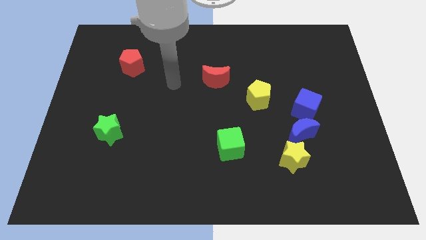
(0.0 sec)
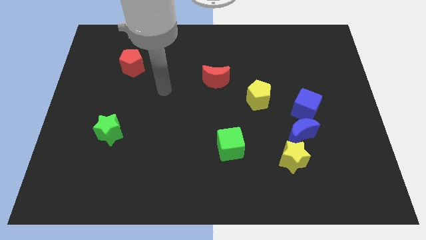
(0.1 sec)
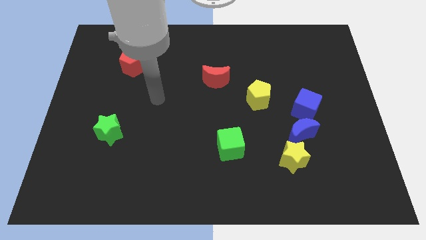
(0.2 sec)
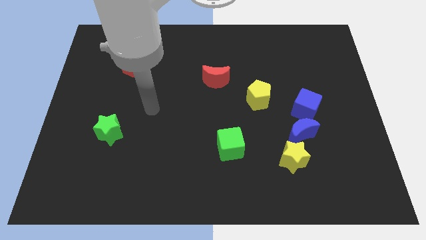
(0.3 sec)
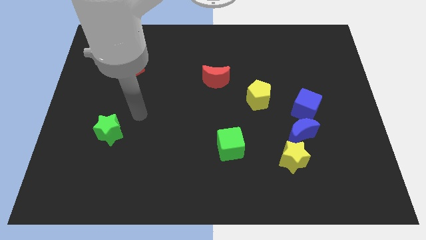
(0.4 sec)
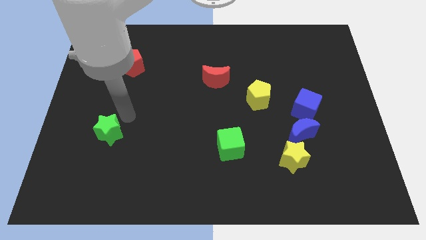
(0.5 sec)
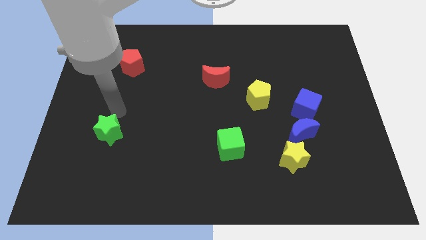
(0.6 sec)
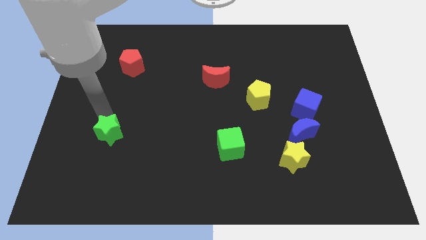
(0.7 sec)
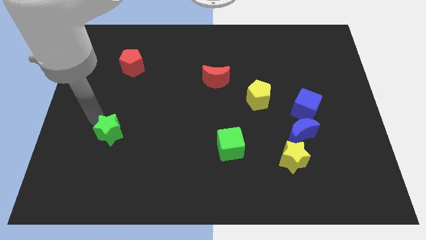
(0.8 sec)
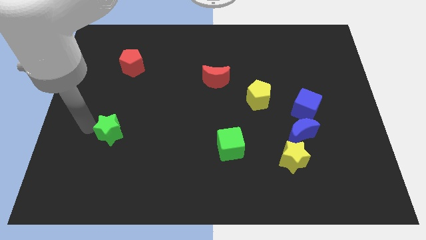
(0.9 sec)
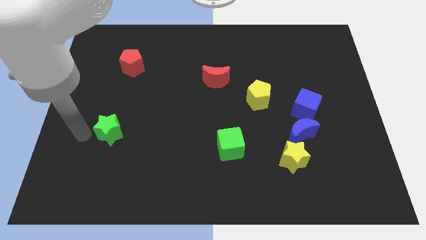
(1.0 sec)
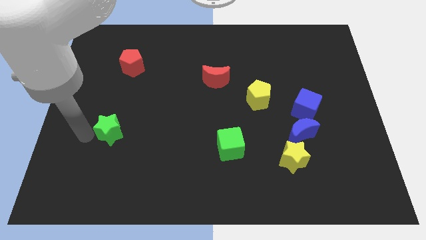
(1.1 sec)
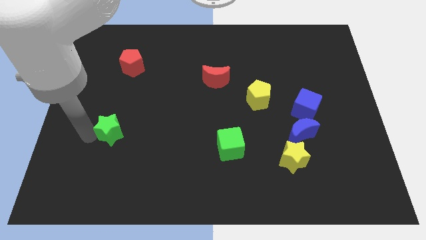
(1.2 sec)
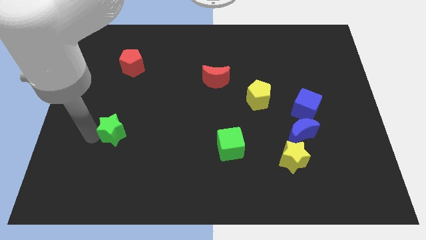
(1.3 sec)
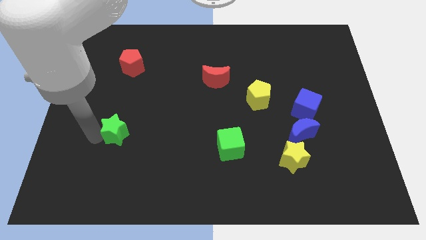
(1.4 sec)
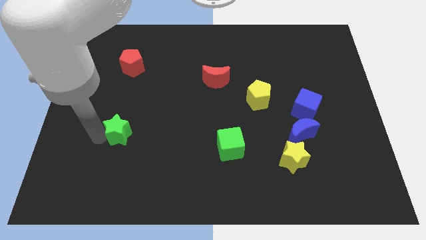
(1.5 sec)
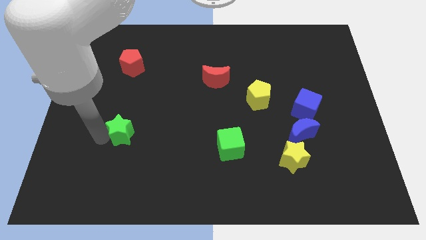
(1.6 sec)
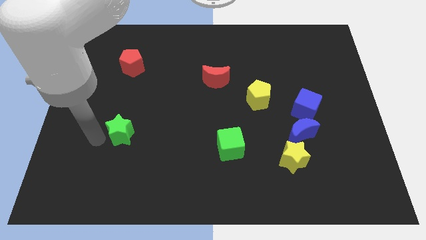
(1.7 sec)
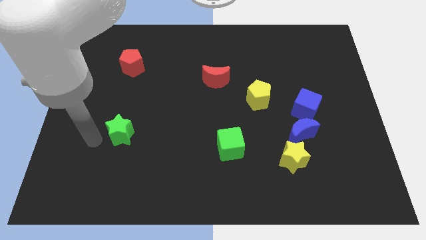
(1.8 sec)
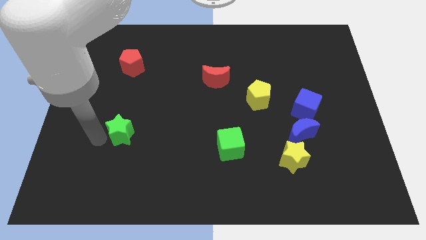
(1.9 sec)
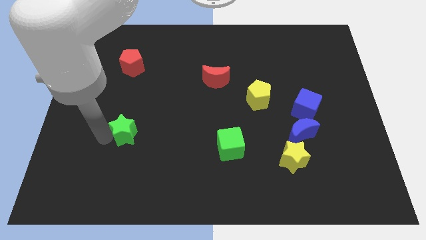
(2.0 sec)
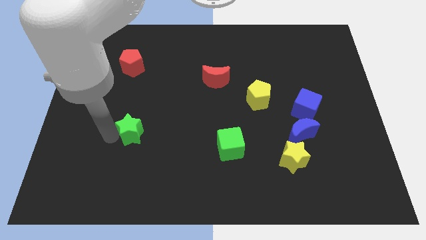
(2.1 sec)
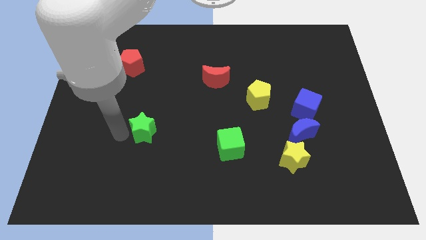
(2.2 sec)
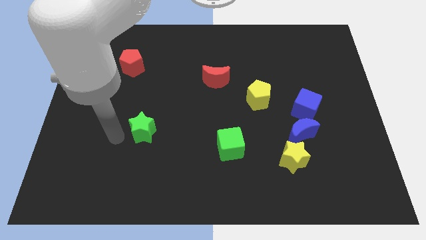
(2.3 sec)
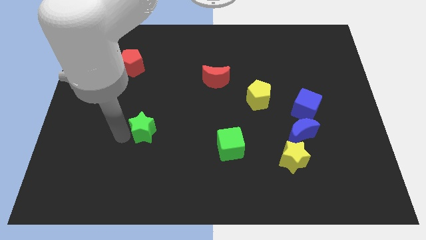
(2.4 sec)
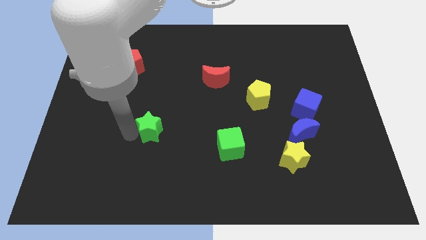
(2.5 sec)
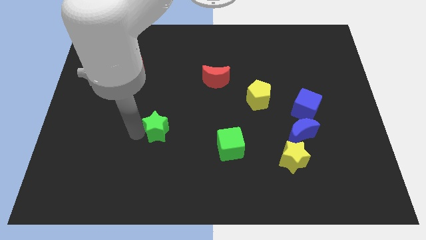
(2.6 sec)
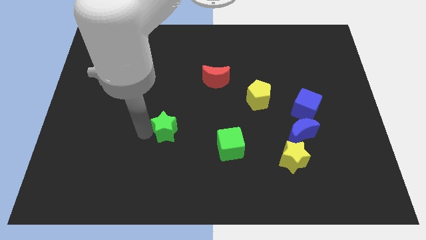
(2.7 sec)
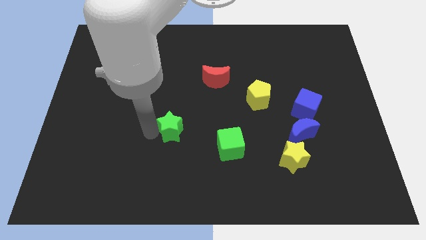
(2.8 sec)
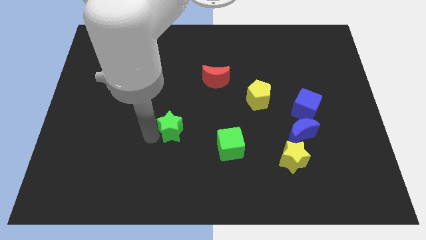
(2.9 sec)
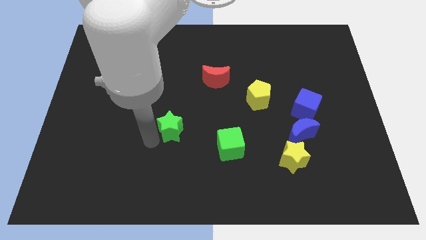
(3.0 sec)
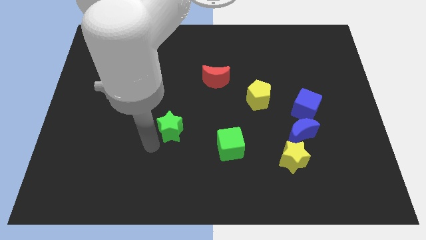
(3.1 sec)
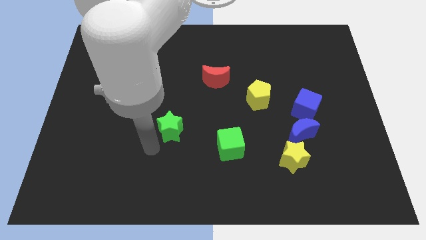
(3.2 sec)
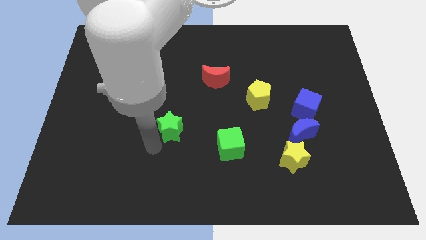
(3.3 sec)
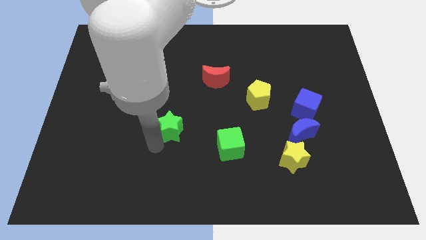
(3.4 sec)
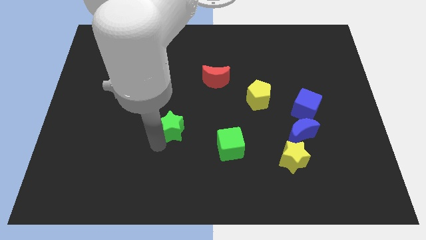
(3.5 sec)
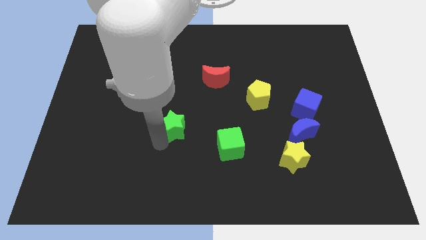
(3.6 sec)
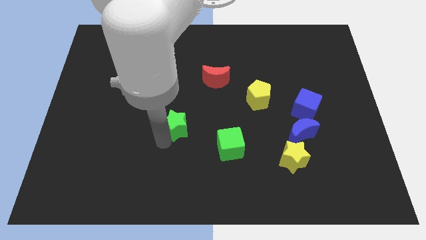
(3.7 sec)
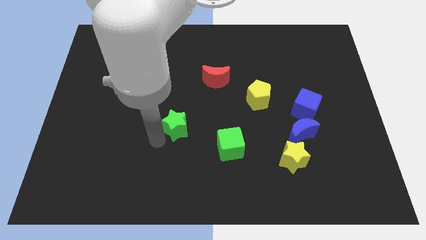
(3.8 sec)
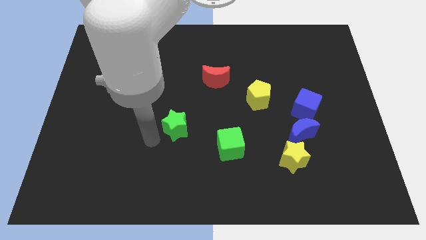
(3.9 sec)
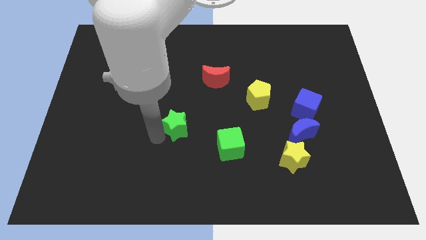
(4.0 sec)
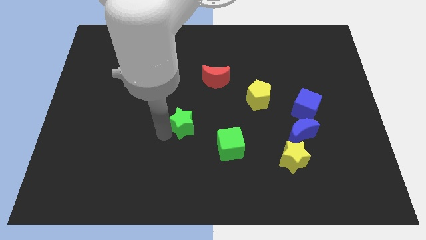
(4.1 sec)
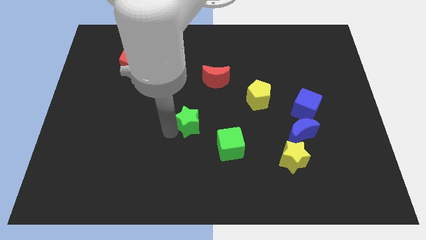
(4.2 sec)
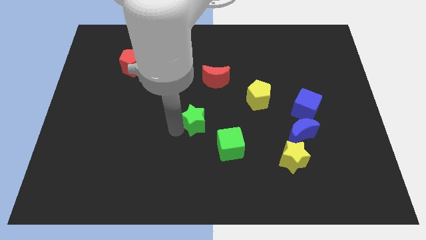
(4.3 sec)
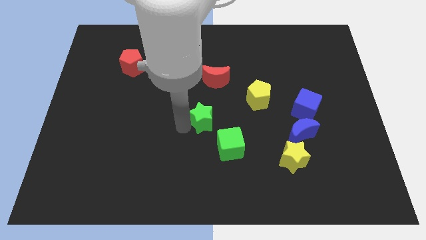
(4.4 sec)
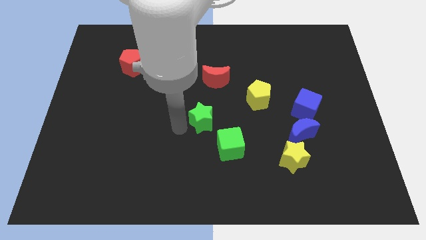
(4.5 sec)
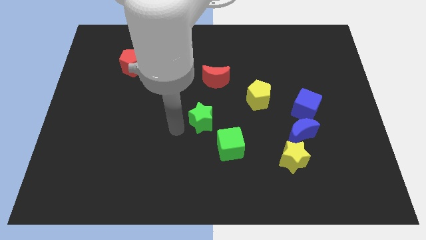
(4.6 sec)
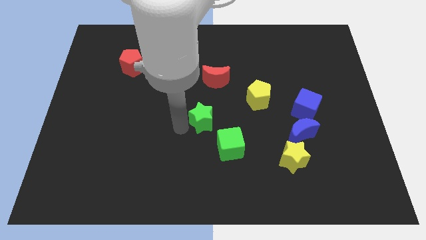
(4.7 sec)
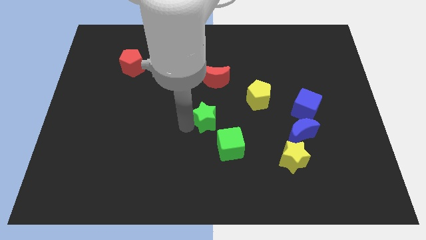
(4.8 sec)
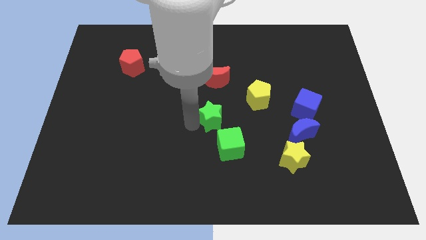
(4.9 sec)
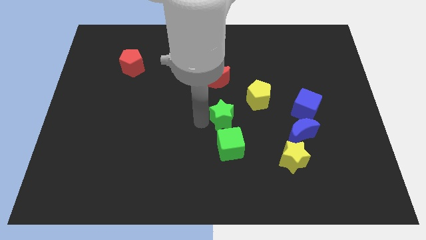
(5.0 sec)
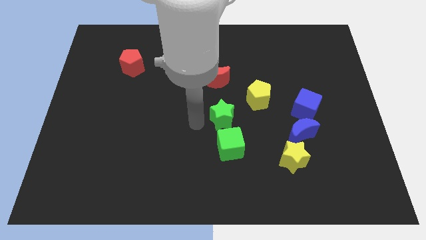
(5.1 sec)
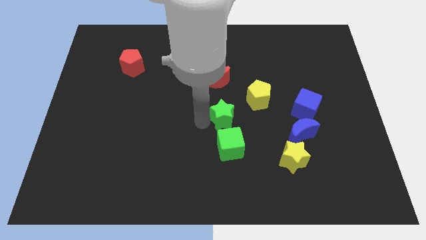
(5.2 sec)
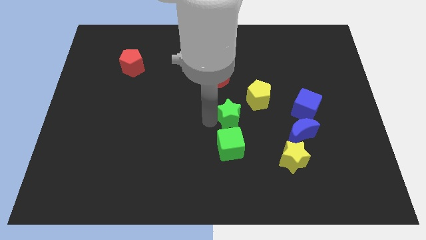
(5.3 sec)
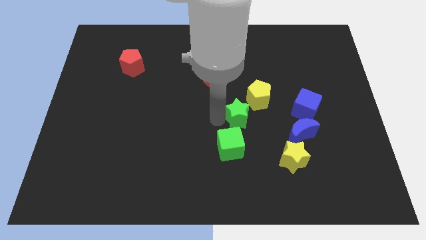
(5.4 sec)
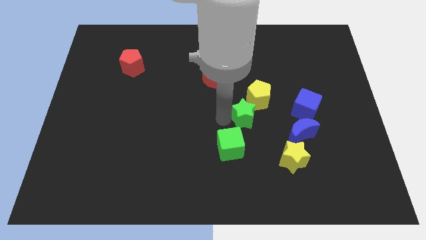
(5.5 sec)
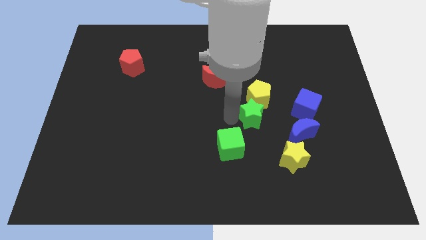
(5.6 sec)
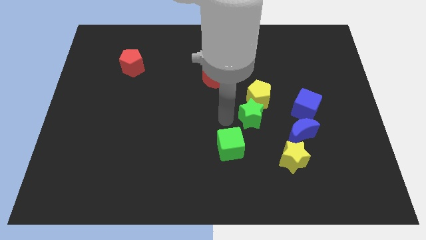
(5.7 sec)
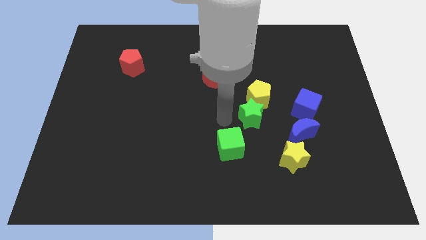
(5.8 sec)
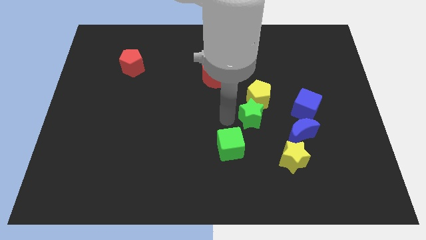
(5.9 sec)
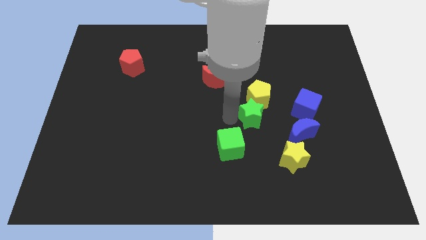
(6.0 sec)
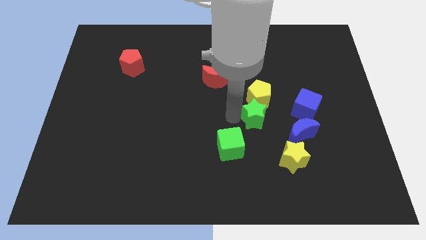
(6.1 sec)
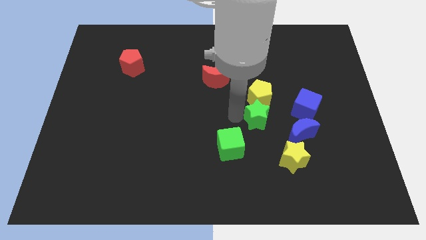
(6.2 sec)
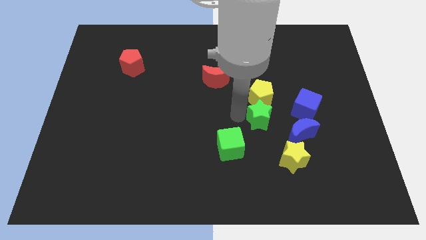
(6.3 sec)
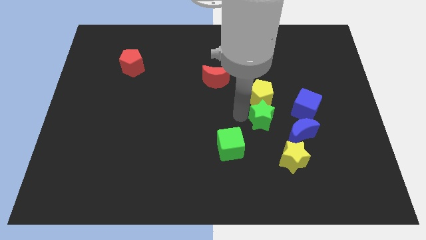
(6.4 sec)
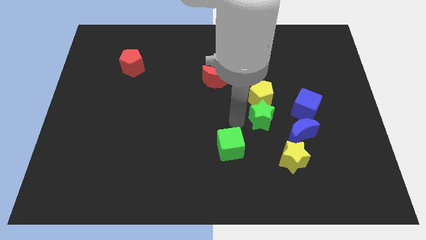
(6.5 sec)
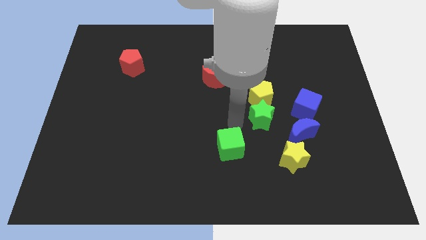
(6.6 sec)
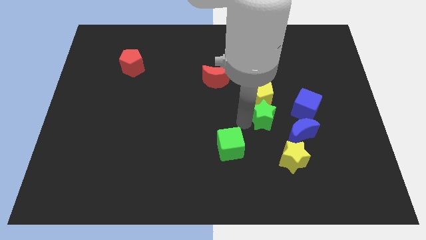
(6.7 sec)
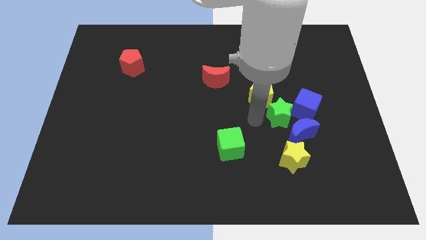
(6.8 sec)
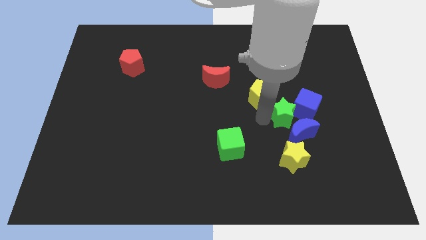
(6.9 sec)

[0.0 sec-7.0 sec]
move the green star to the blue cube
